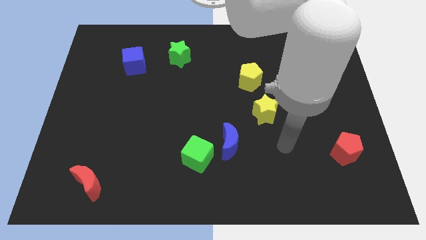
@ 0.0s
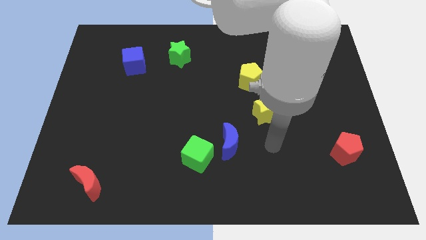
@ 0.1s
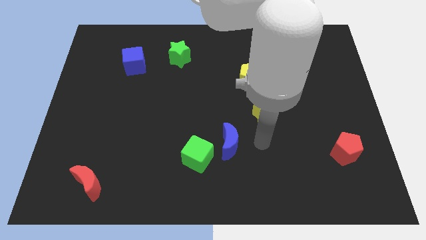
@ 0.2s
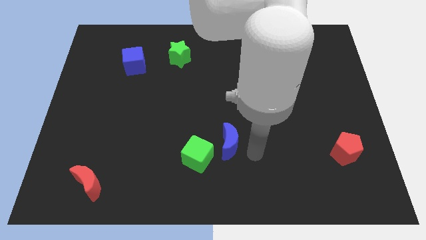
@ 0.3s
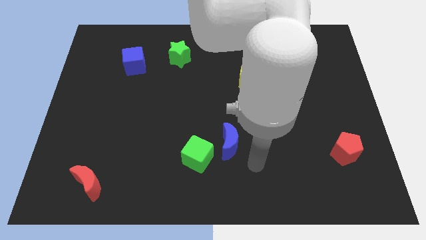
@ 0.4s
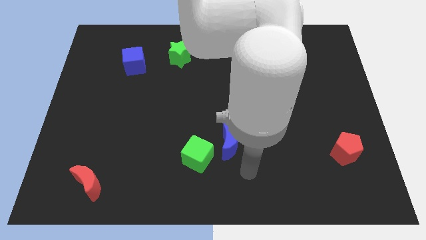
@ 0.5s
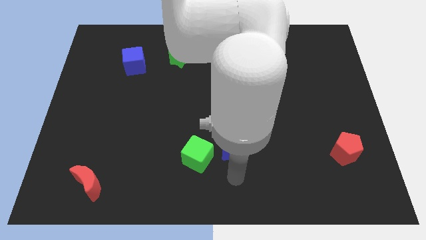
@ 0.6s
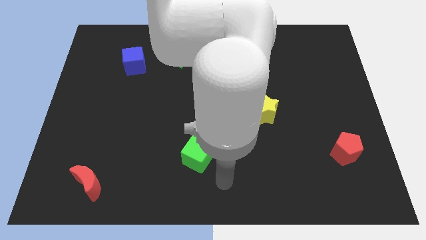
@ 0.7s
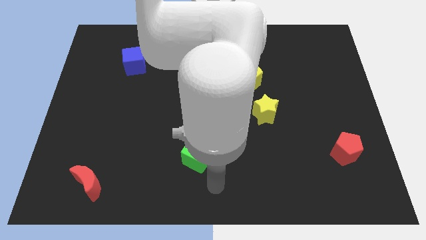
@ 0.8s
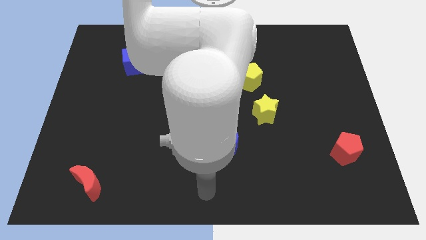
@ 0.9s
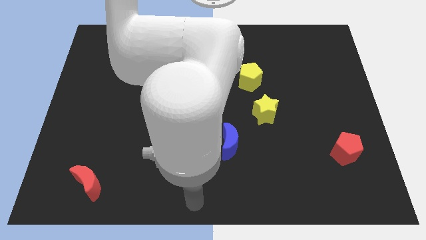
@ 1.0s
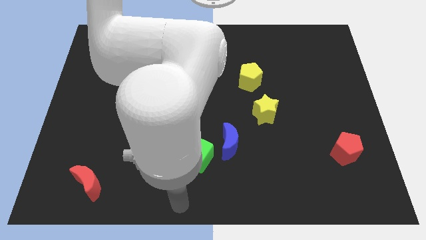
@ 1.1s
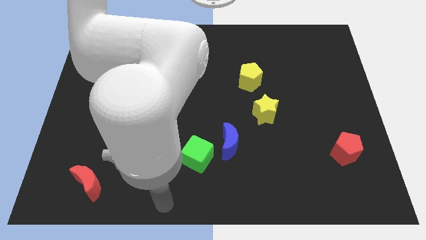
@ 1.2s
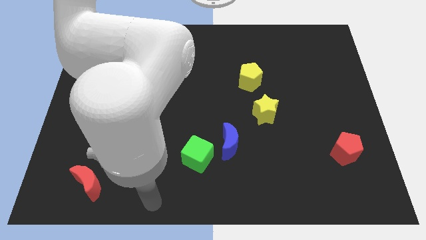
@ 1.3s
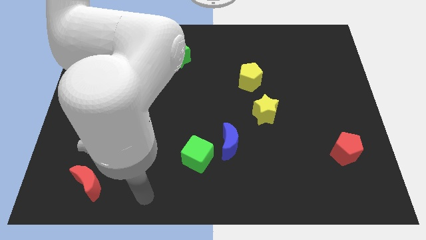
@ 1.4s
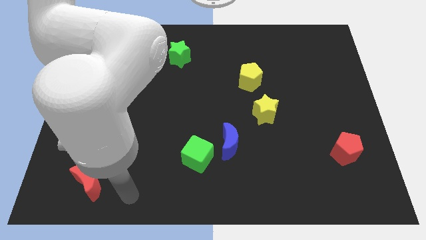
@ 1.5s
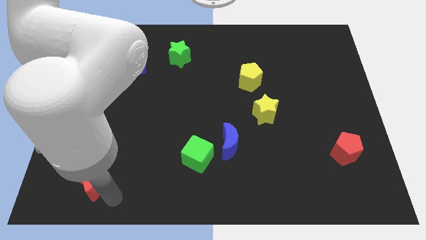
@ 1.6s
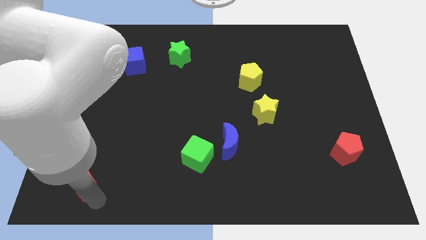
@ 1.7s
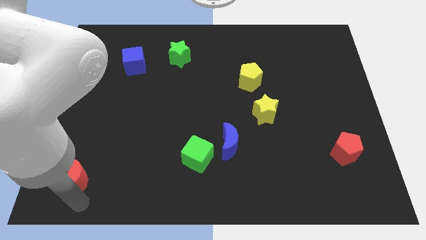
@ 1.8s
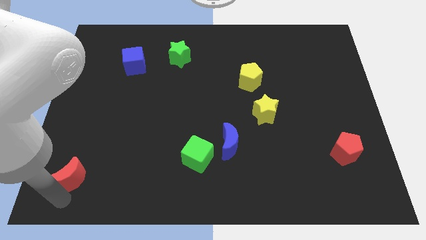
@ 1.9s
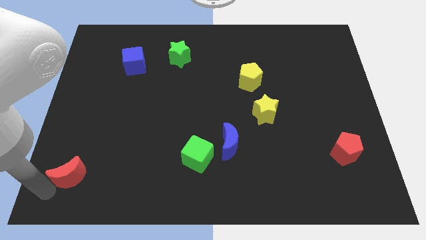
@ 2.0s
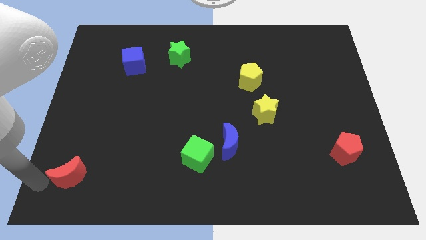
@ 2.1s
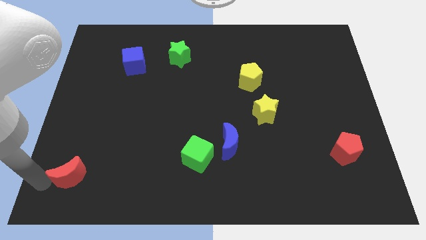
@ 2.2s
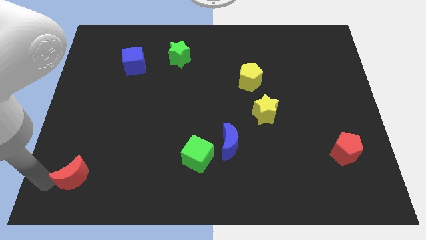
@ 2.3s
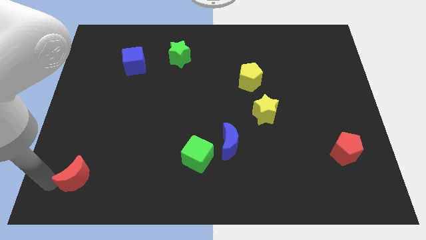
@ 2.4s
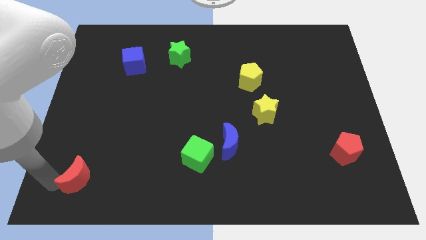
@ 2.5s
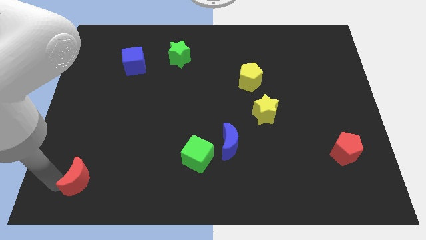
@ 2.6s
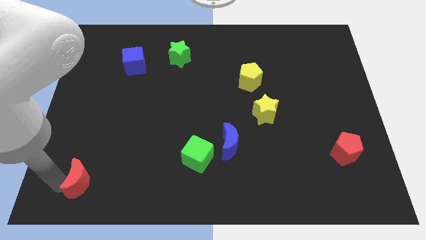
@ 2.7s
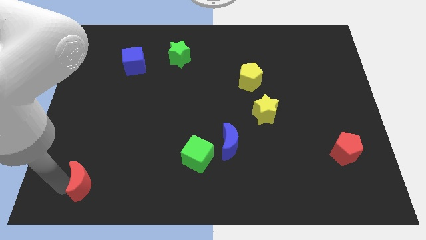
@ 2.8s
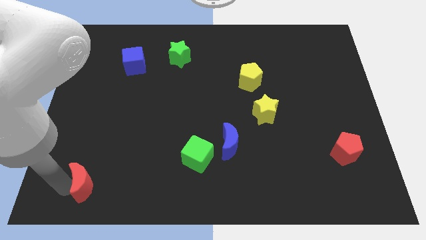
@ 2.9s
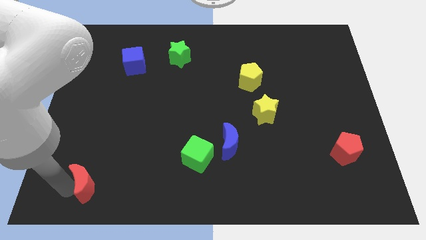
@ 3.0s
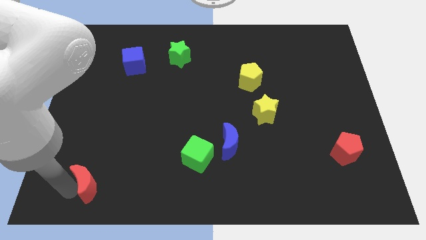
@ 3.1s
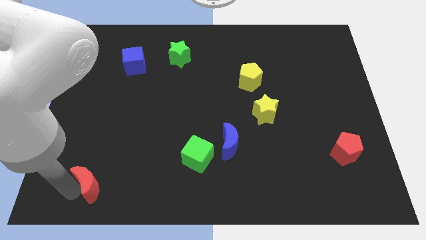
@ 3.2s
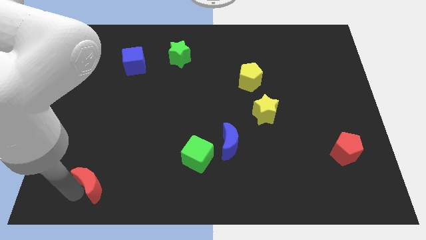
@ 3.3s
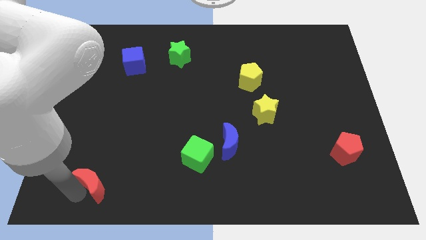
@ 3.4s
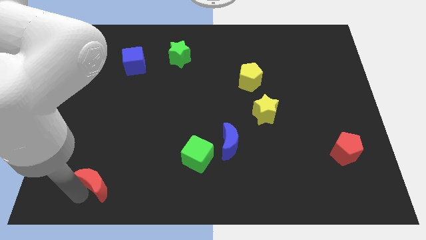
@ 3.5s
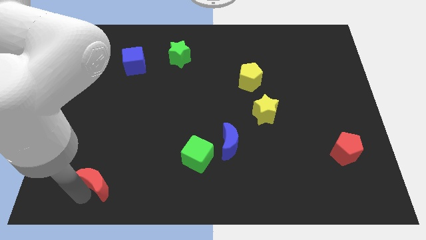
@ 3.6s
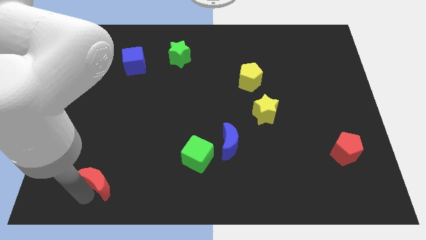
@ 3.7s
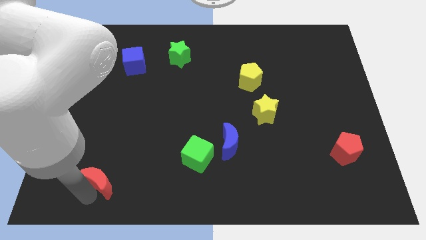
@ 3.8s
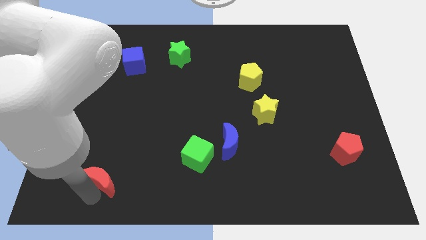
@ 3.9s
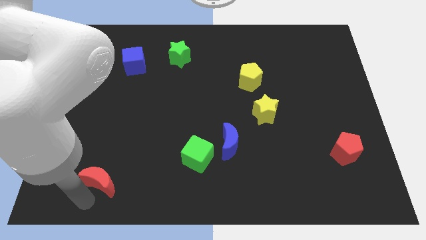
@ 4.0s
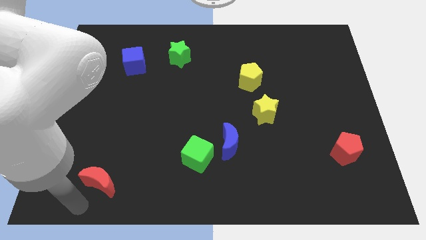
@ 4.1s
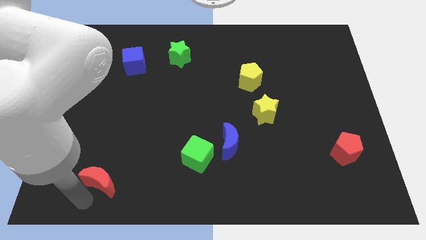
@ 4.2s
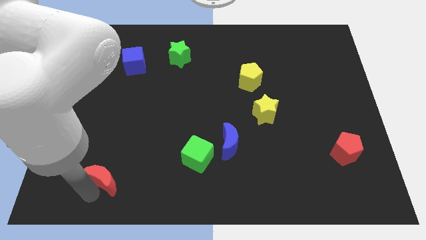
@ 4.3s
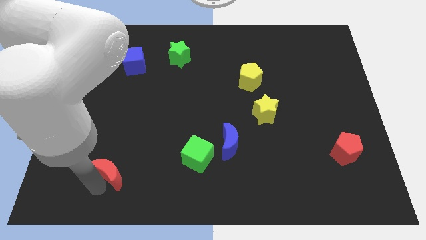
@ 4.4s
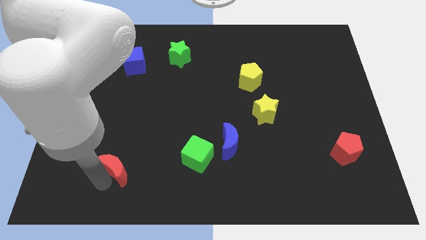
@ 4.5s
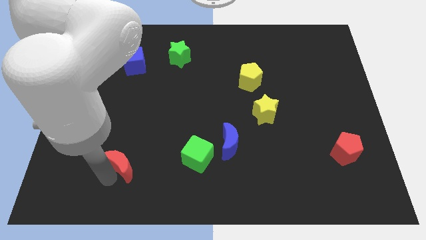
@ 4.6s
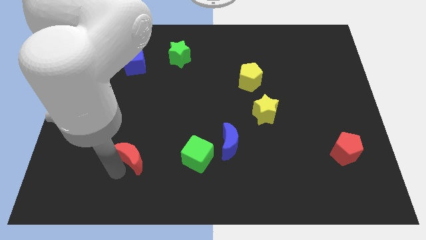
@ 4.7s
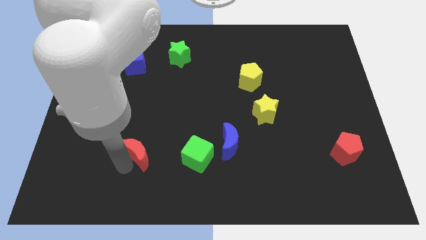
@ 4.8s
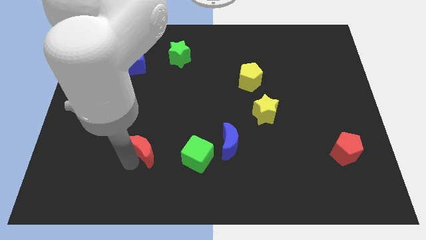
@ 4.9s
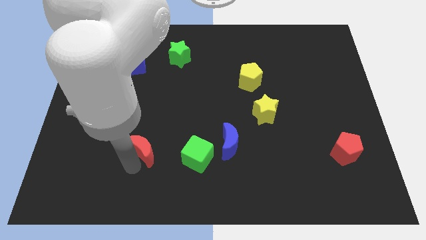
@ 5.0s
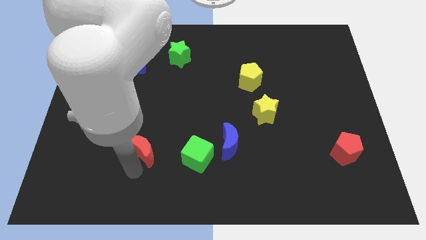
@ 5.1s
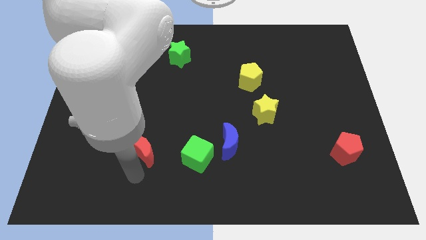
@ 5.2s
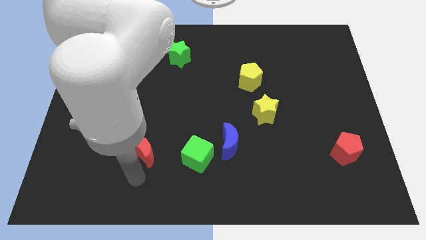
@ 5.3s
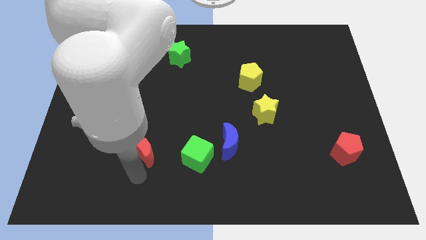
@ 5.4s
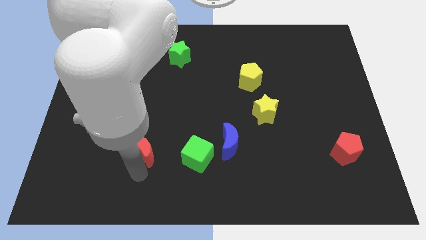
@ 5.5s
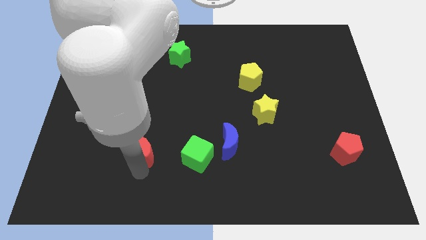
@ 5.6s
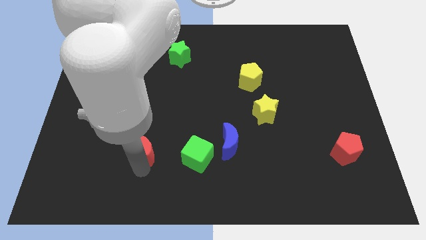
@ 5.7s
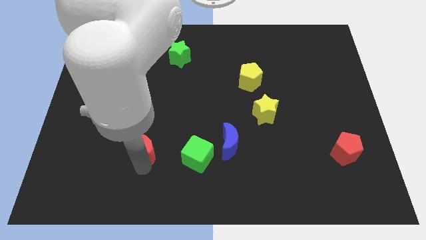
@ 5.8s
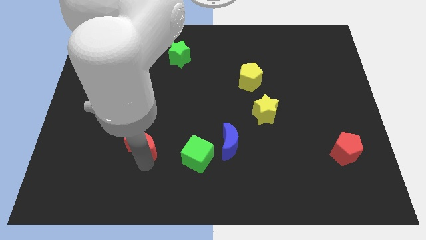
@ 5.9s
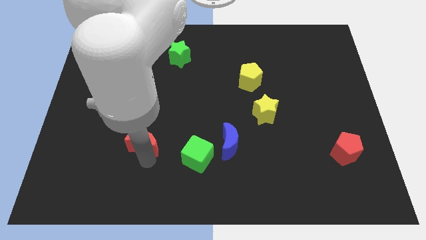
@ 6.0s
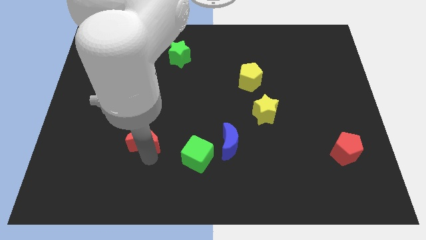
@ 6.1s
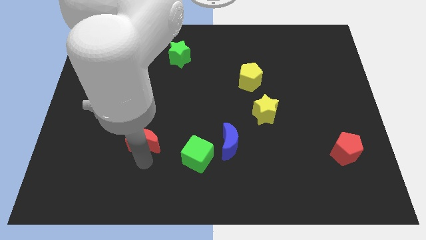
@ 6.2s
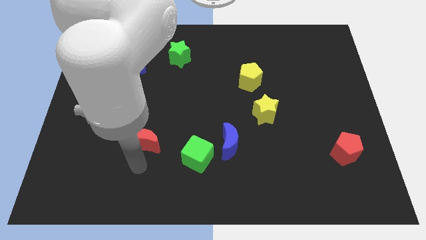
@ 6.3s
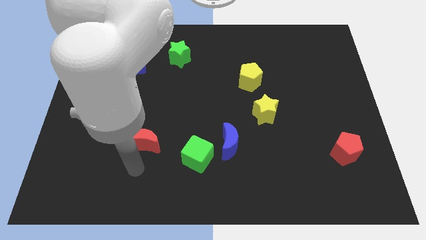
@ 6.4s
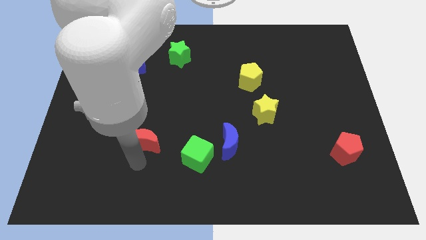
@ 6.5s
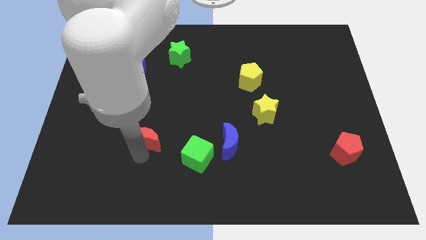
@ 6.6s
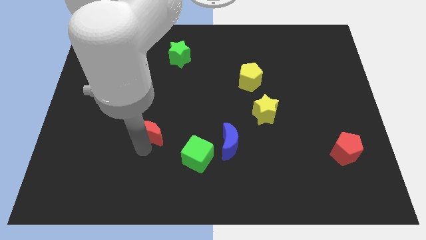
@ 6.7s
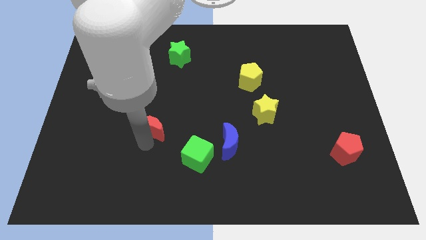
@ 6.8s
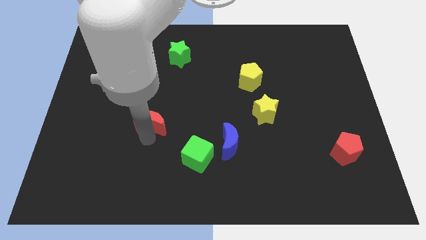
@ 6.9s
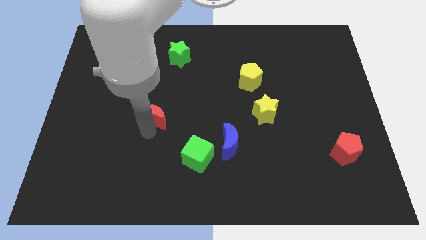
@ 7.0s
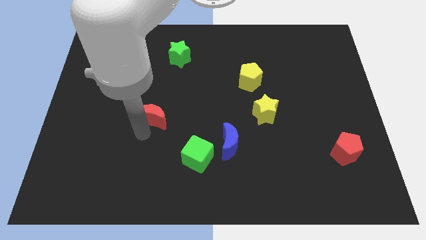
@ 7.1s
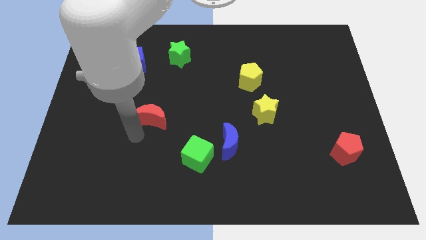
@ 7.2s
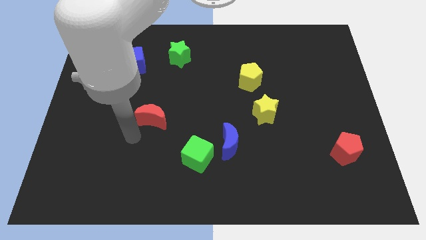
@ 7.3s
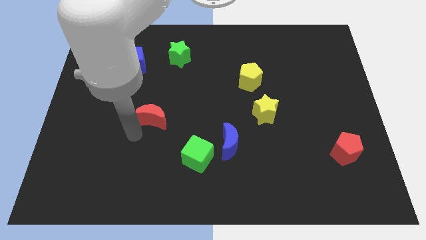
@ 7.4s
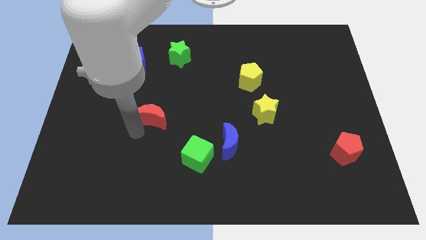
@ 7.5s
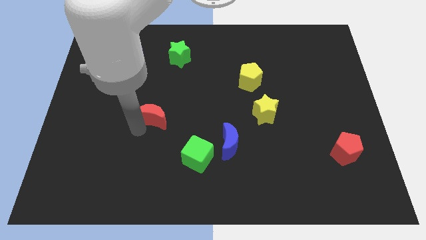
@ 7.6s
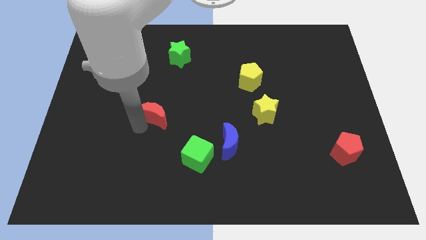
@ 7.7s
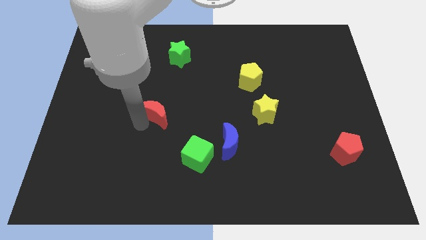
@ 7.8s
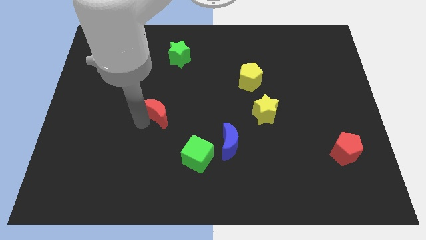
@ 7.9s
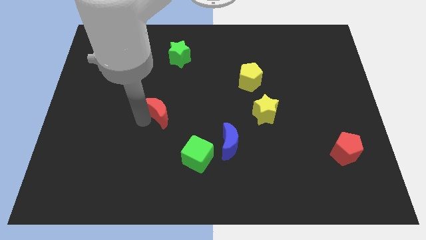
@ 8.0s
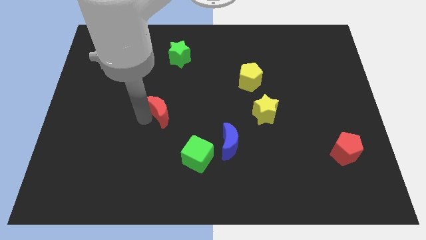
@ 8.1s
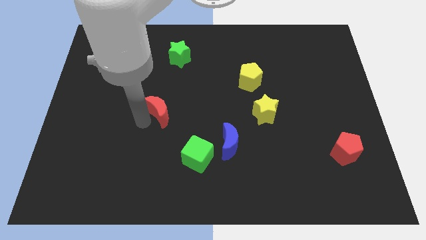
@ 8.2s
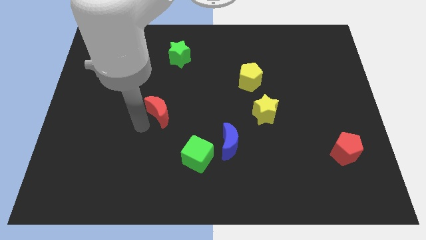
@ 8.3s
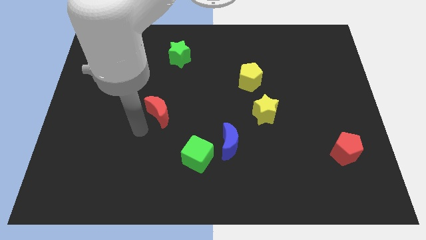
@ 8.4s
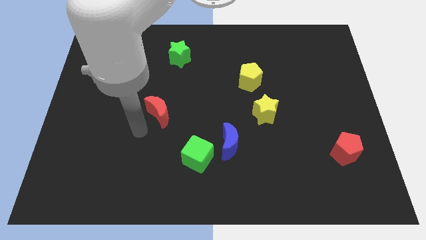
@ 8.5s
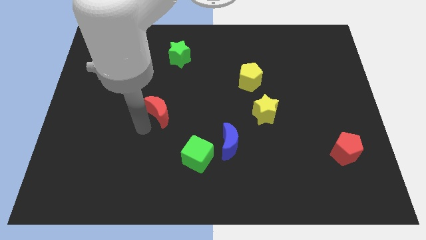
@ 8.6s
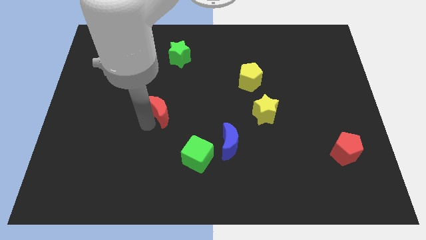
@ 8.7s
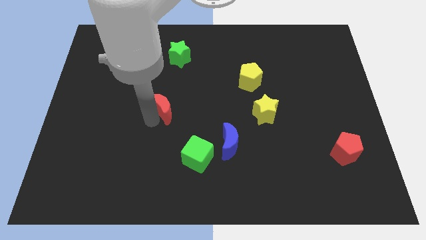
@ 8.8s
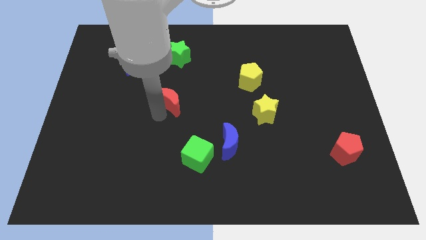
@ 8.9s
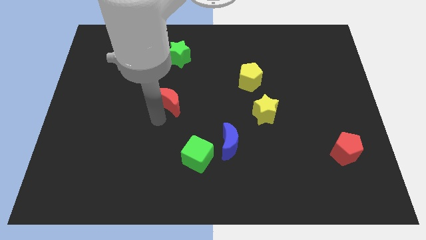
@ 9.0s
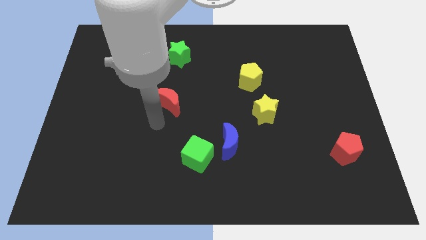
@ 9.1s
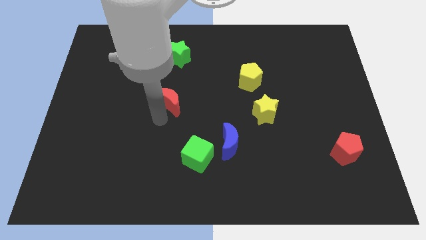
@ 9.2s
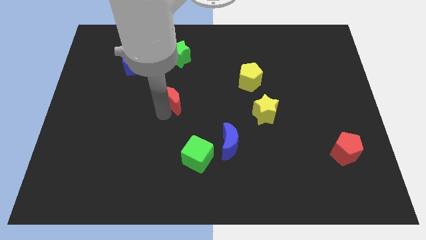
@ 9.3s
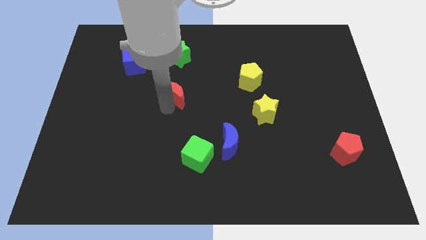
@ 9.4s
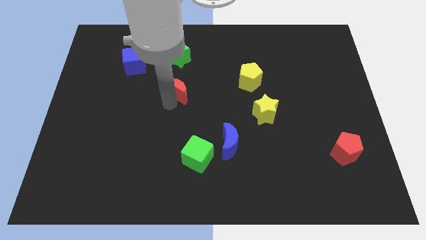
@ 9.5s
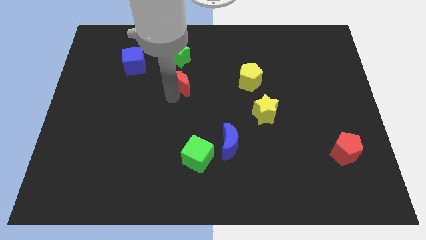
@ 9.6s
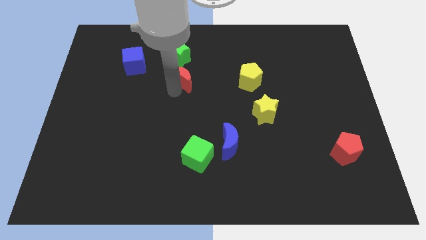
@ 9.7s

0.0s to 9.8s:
slide the red moon to the bottom right of the green star
